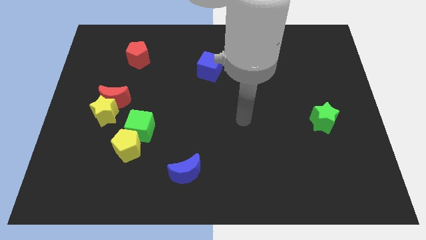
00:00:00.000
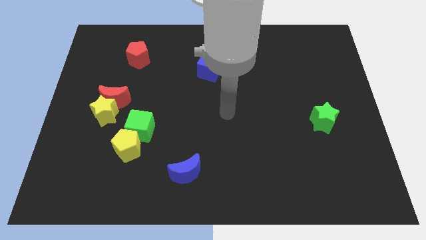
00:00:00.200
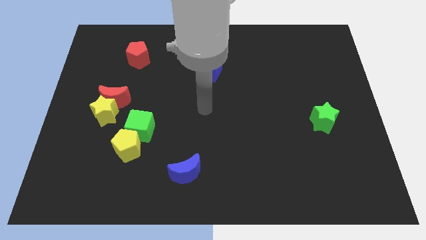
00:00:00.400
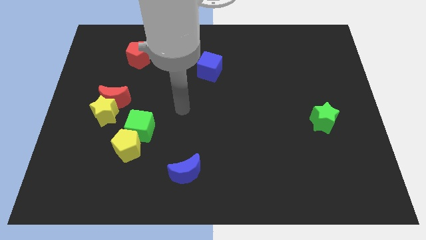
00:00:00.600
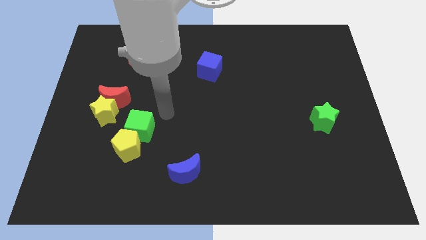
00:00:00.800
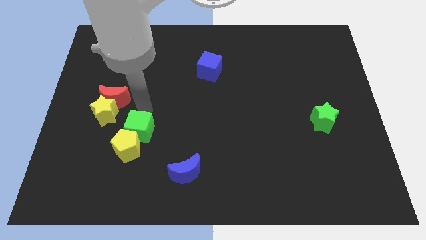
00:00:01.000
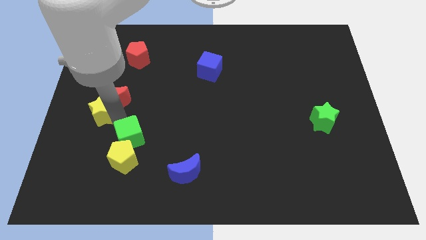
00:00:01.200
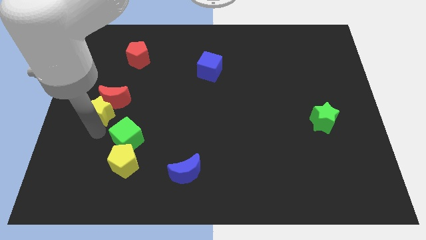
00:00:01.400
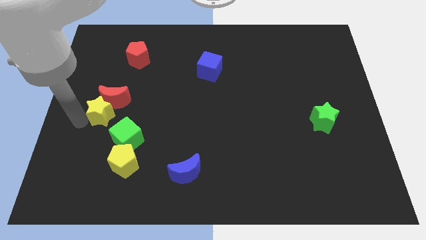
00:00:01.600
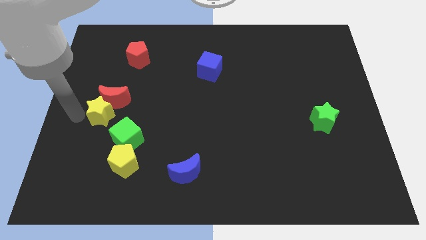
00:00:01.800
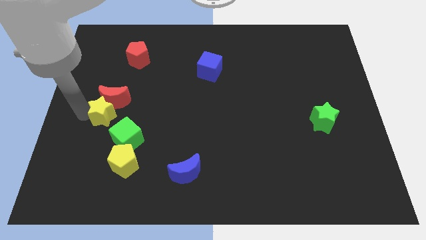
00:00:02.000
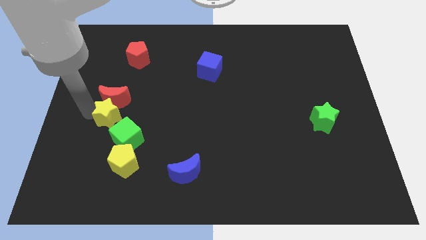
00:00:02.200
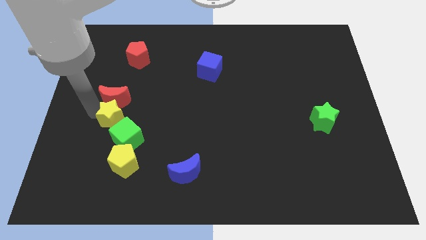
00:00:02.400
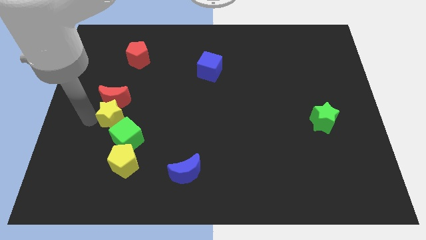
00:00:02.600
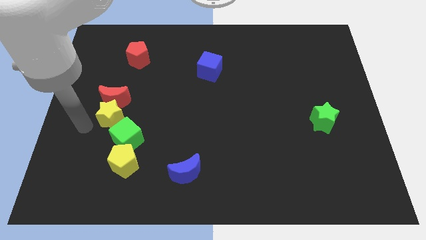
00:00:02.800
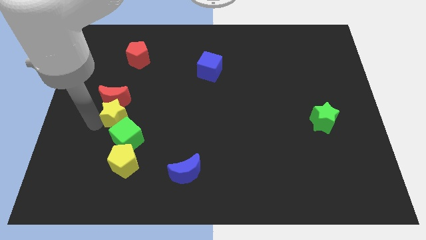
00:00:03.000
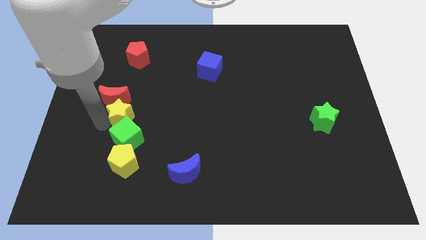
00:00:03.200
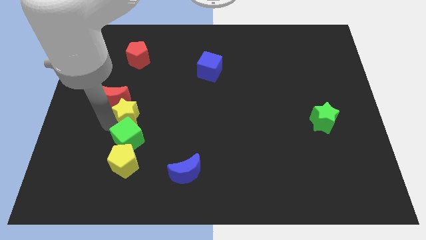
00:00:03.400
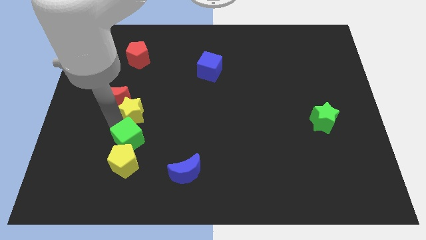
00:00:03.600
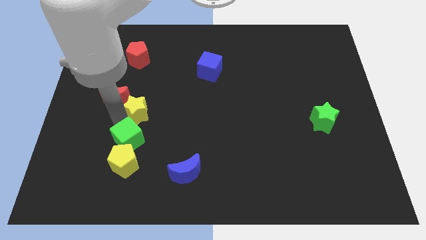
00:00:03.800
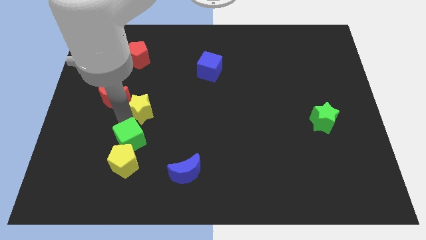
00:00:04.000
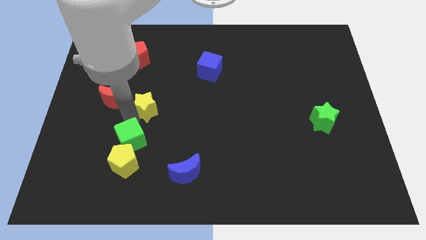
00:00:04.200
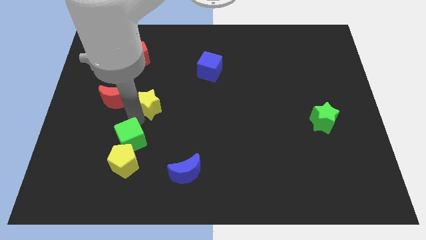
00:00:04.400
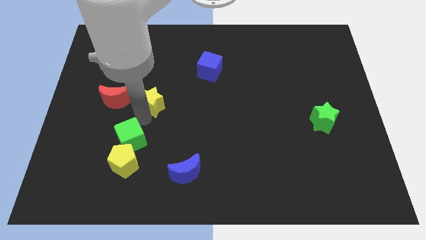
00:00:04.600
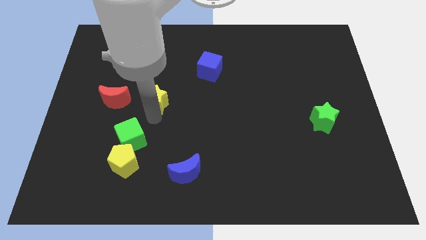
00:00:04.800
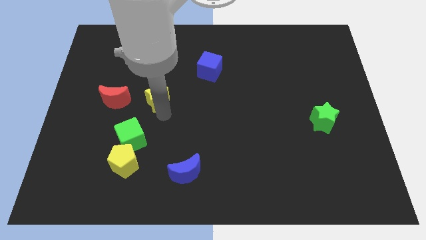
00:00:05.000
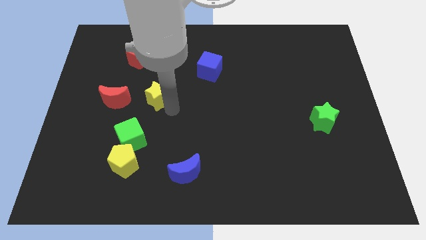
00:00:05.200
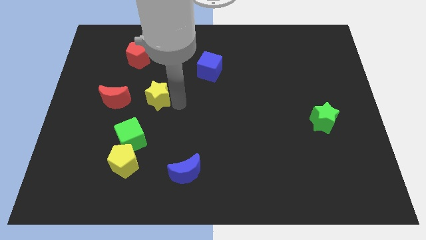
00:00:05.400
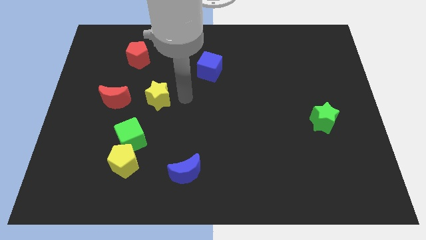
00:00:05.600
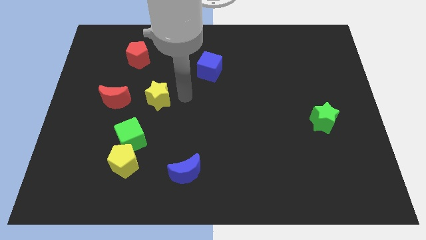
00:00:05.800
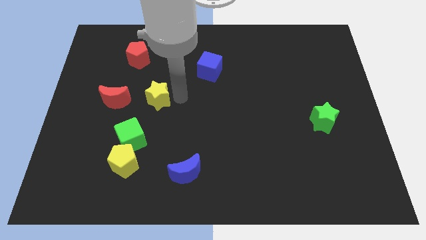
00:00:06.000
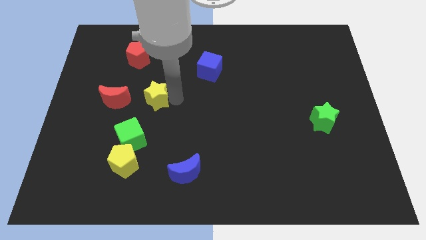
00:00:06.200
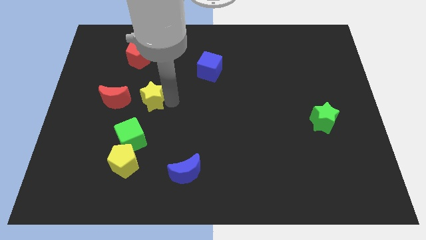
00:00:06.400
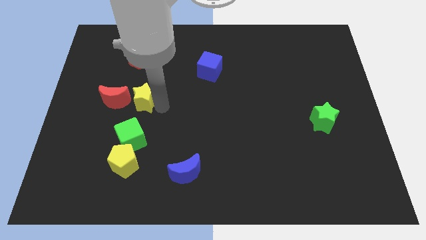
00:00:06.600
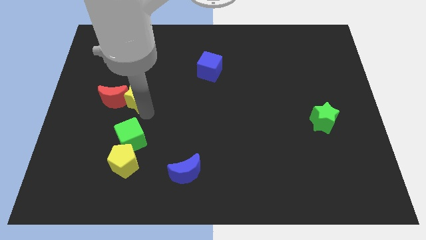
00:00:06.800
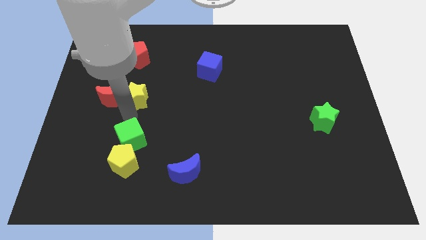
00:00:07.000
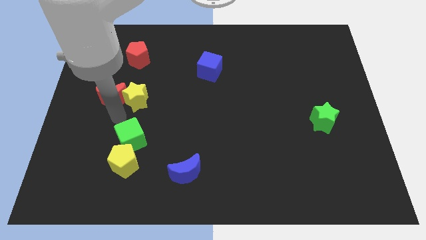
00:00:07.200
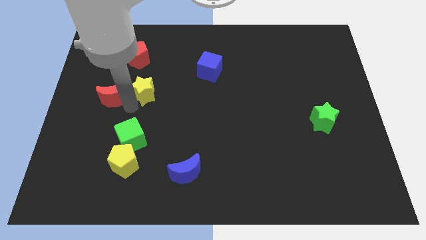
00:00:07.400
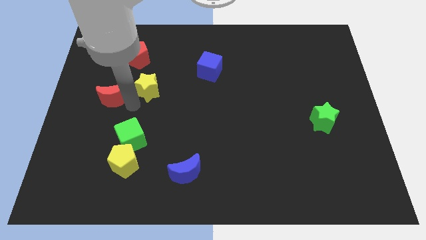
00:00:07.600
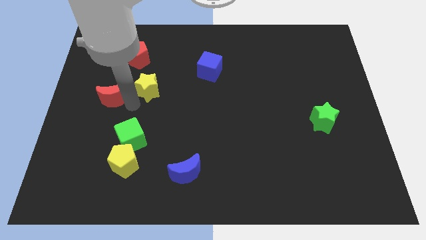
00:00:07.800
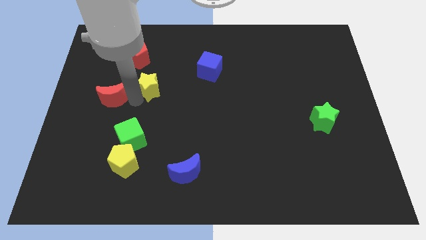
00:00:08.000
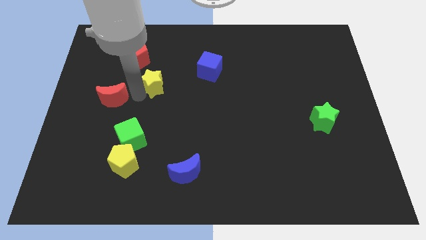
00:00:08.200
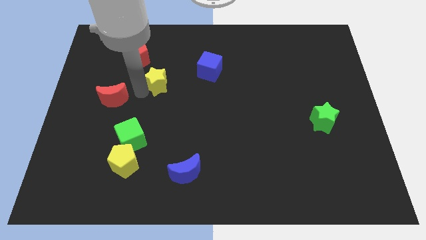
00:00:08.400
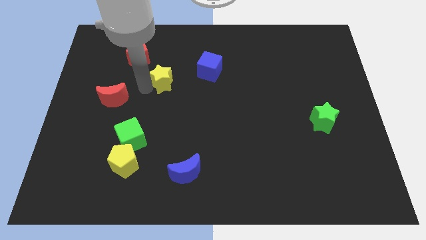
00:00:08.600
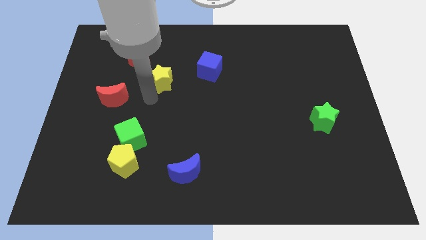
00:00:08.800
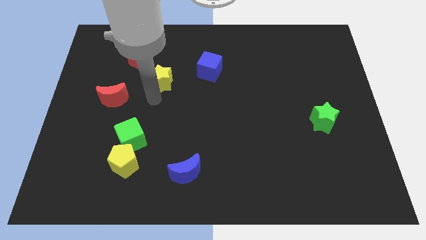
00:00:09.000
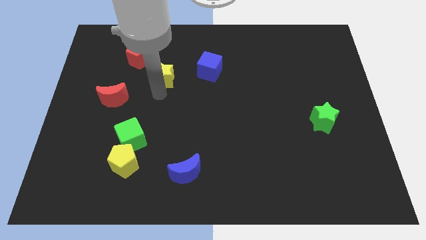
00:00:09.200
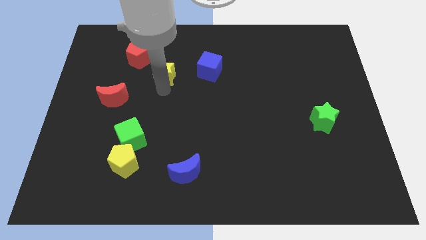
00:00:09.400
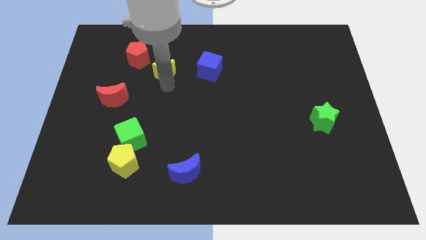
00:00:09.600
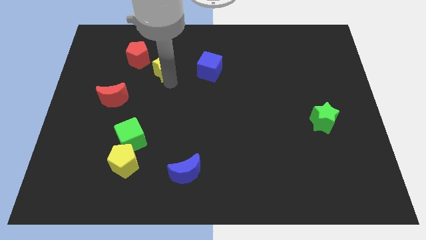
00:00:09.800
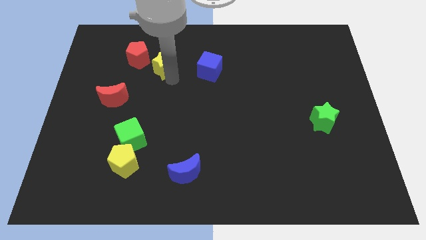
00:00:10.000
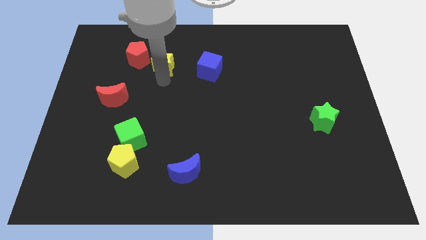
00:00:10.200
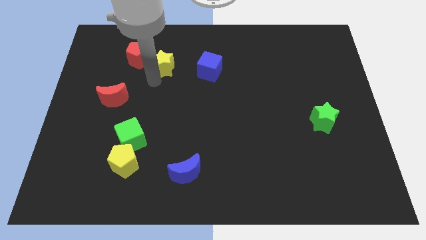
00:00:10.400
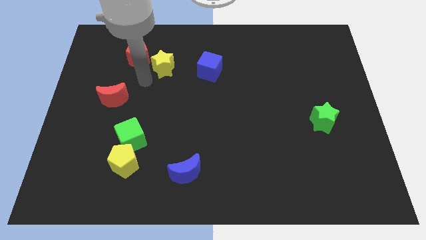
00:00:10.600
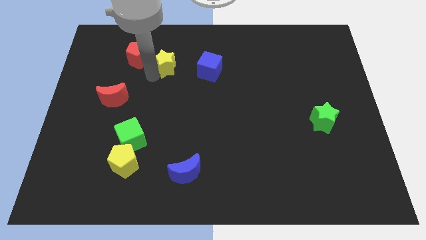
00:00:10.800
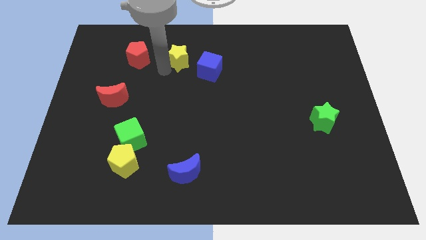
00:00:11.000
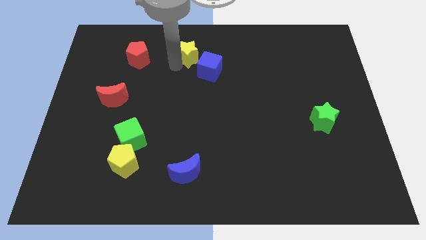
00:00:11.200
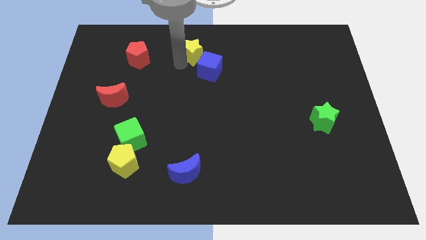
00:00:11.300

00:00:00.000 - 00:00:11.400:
push the yellow star to the top

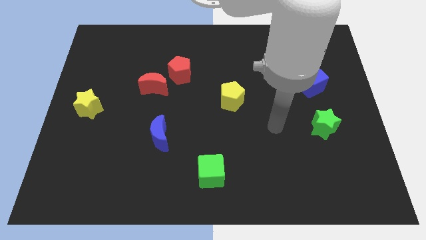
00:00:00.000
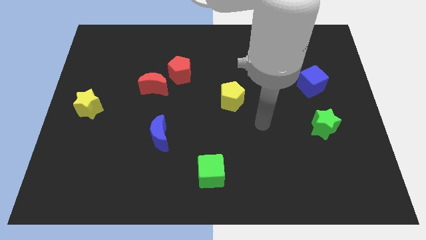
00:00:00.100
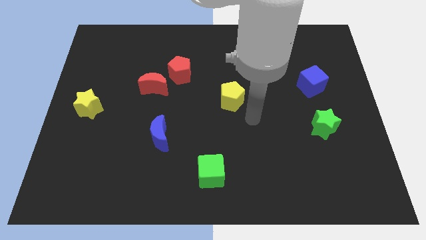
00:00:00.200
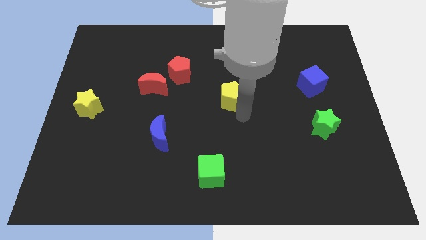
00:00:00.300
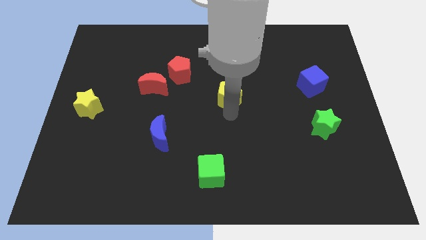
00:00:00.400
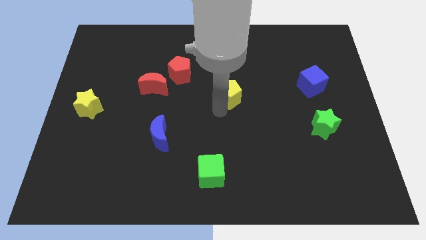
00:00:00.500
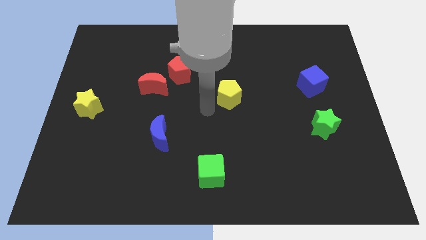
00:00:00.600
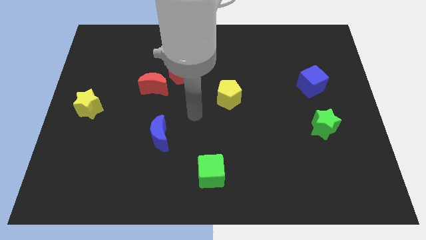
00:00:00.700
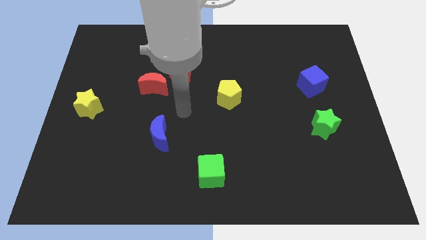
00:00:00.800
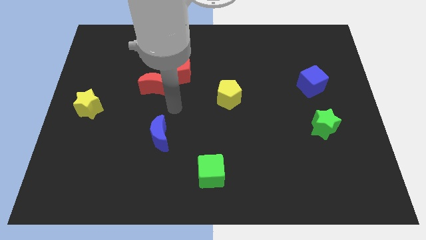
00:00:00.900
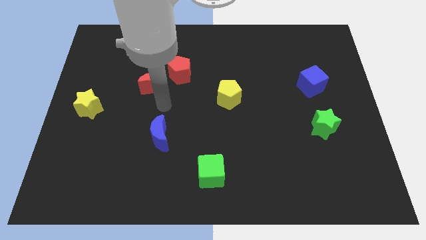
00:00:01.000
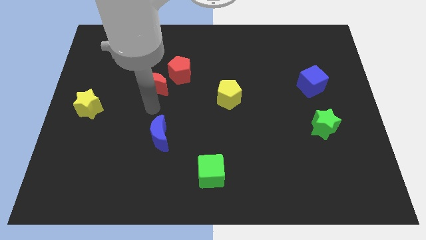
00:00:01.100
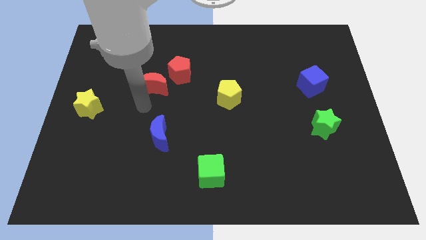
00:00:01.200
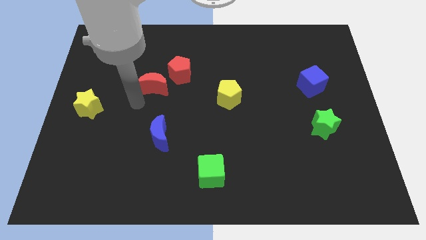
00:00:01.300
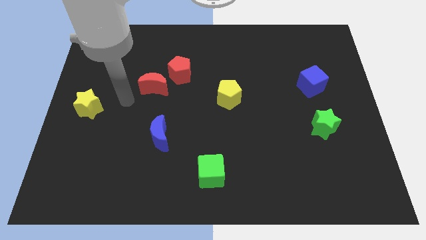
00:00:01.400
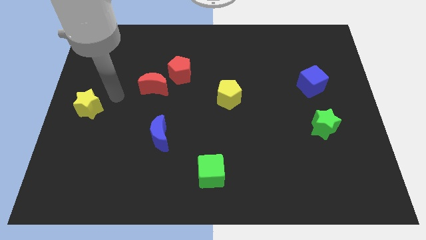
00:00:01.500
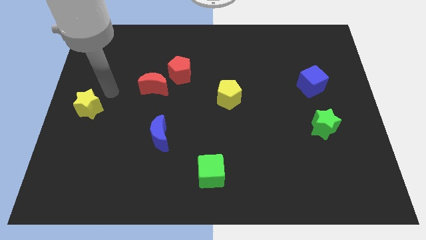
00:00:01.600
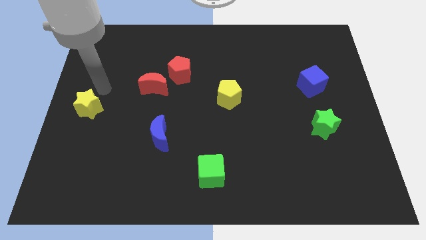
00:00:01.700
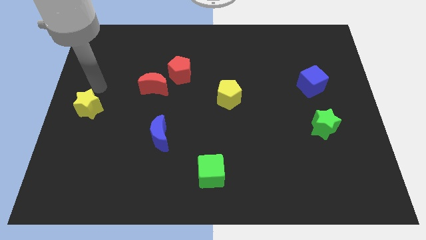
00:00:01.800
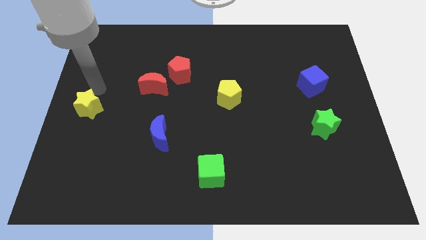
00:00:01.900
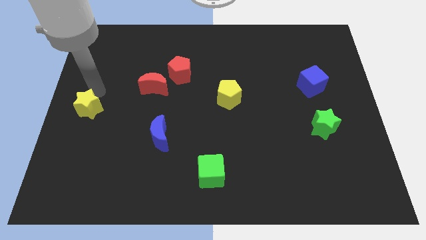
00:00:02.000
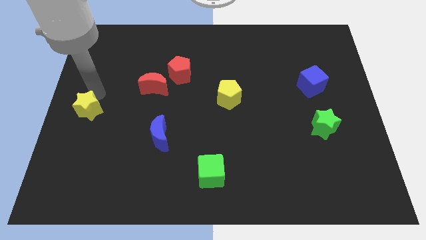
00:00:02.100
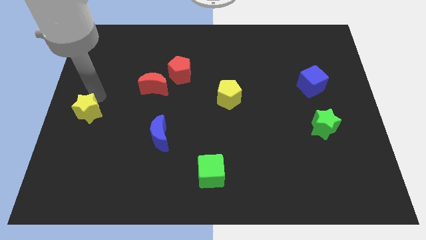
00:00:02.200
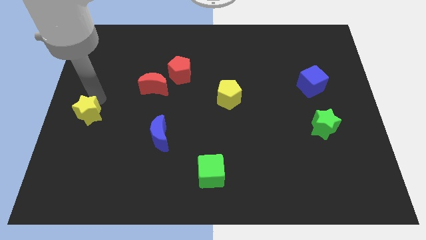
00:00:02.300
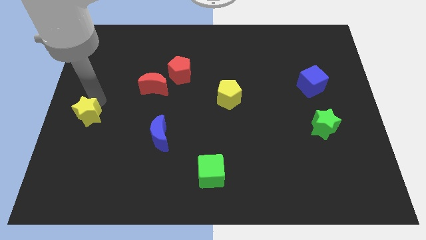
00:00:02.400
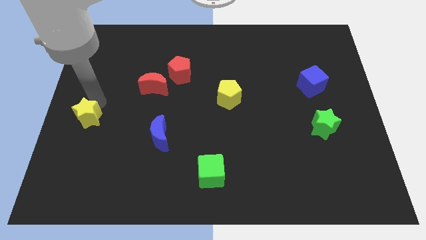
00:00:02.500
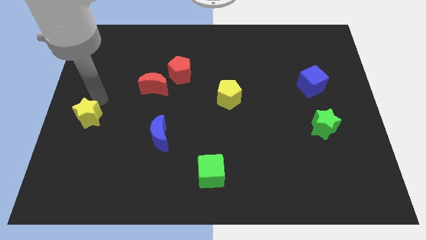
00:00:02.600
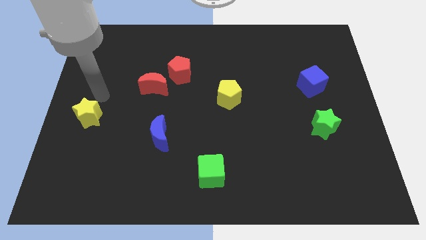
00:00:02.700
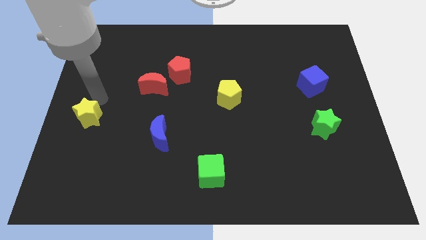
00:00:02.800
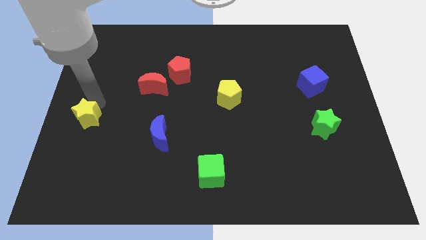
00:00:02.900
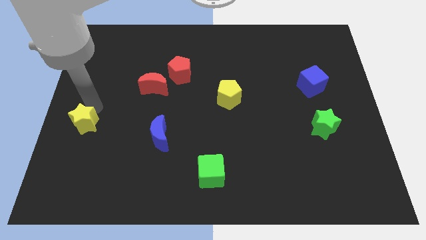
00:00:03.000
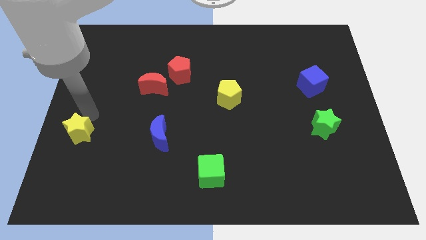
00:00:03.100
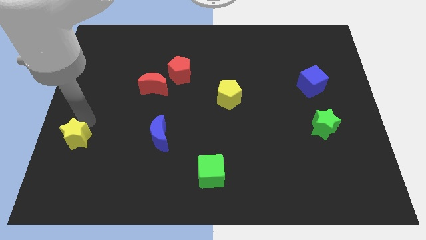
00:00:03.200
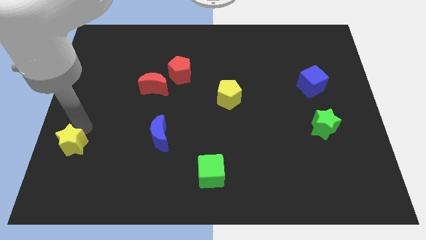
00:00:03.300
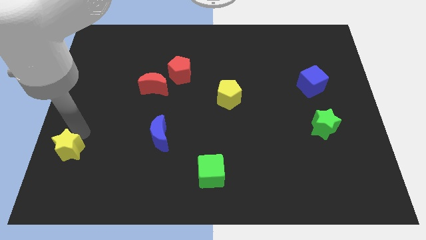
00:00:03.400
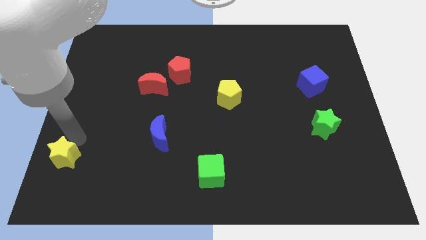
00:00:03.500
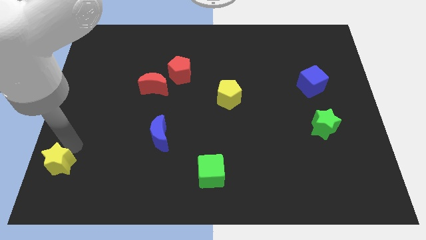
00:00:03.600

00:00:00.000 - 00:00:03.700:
slide the yellow star to the bottom left corner
